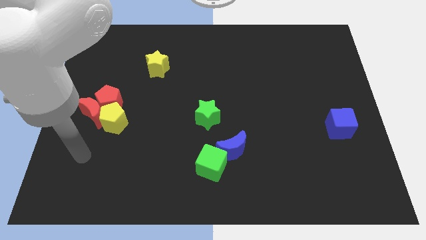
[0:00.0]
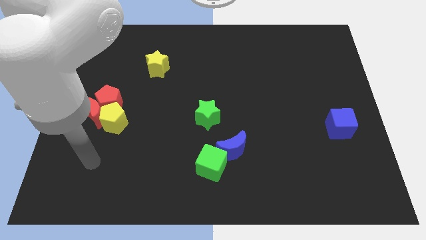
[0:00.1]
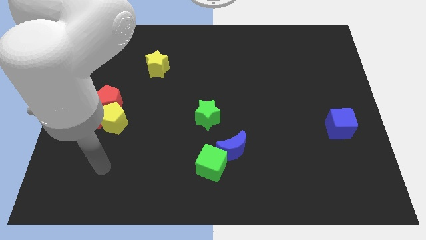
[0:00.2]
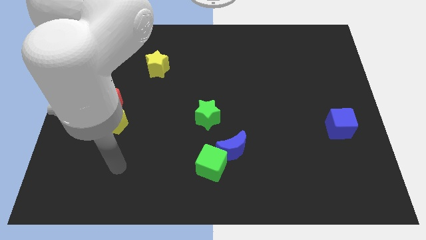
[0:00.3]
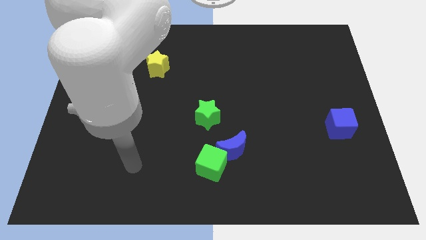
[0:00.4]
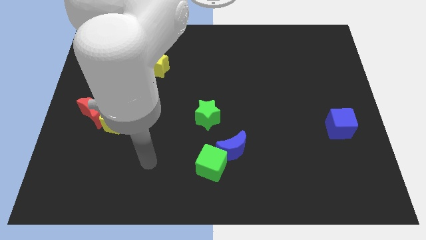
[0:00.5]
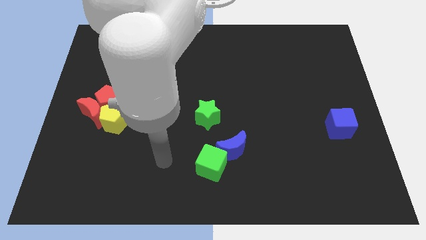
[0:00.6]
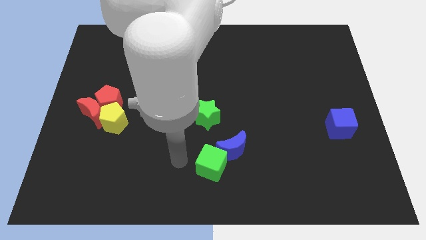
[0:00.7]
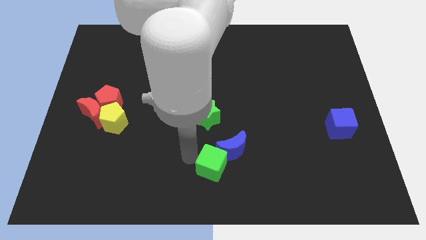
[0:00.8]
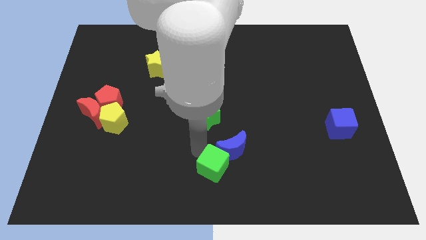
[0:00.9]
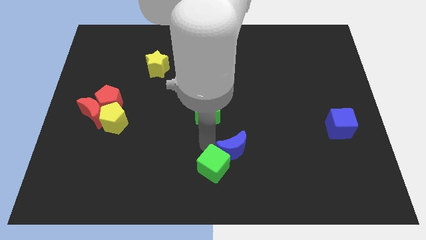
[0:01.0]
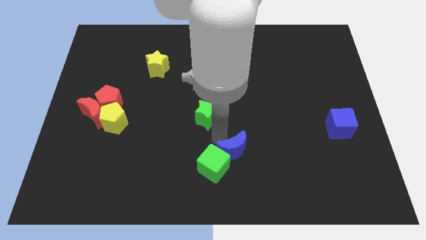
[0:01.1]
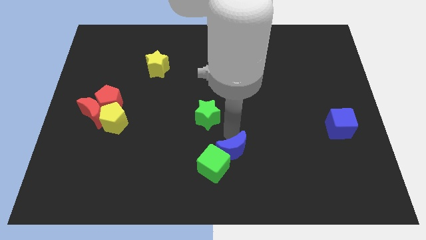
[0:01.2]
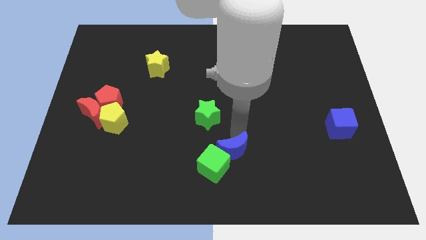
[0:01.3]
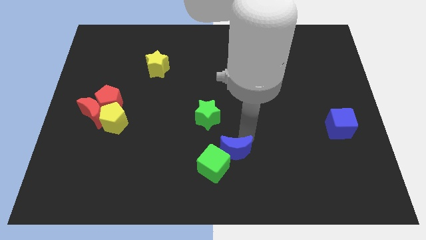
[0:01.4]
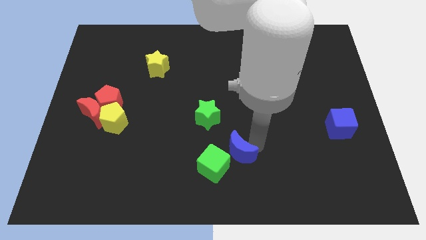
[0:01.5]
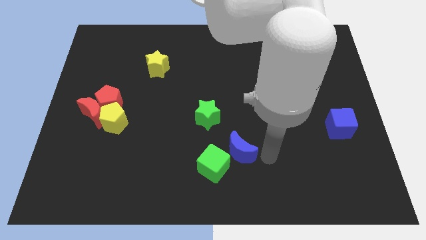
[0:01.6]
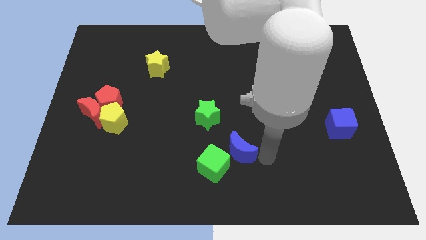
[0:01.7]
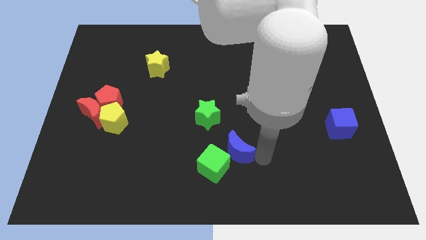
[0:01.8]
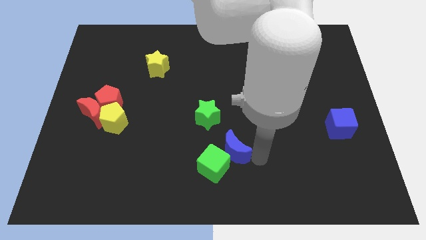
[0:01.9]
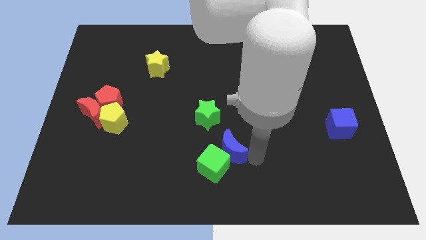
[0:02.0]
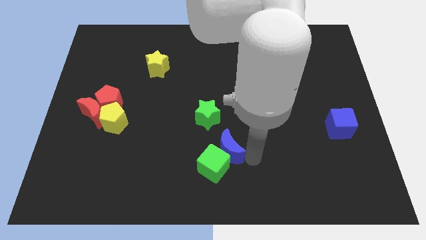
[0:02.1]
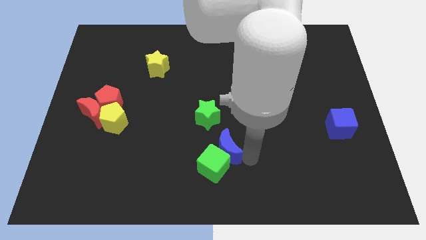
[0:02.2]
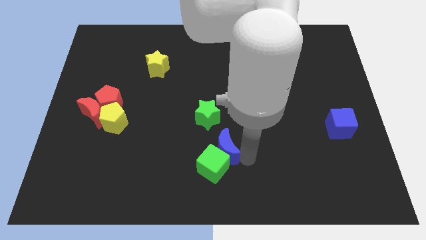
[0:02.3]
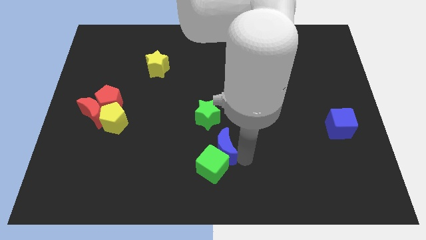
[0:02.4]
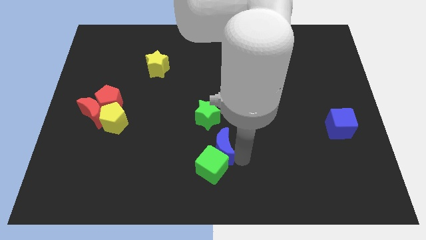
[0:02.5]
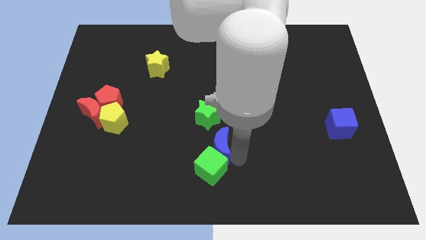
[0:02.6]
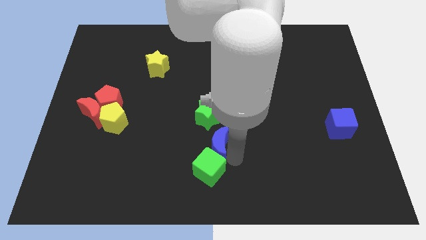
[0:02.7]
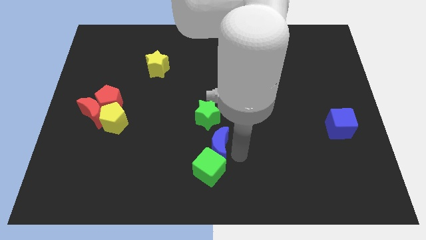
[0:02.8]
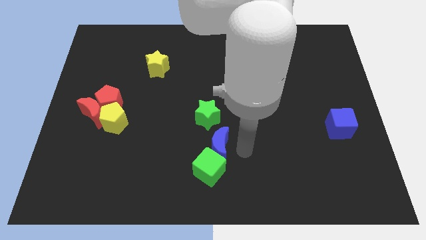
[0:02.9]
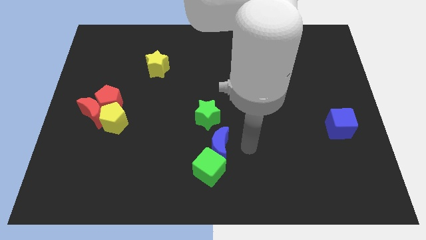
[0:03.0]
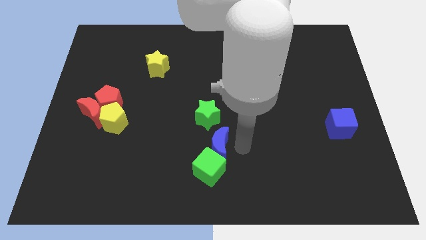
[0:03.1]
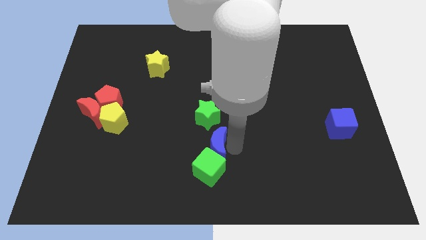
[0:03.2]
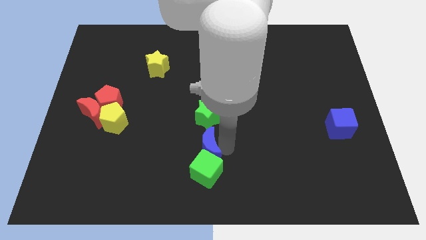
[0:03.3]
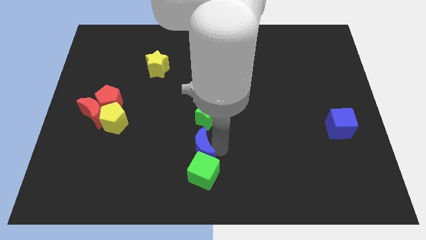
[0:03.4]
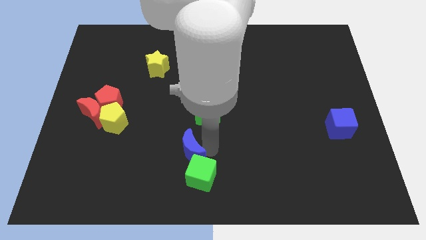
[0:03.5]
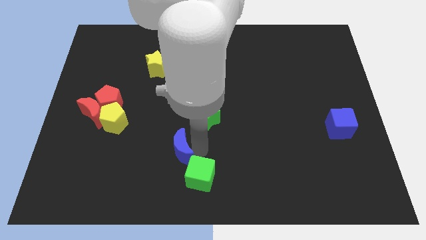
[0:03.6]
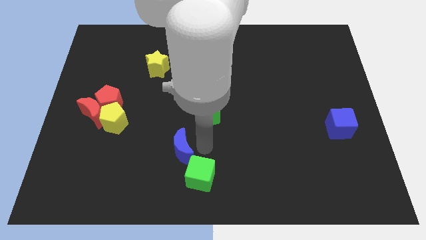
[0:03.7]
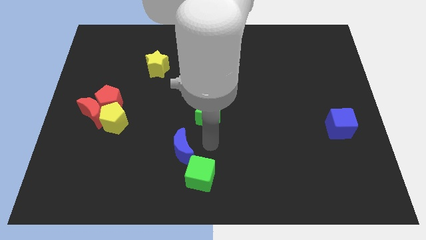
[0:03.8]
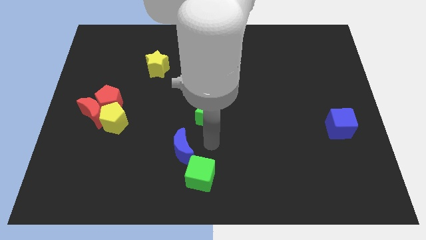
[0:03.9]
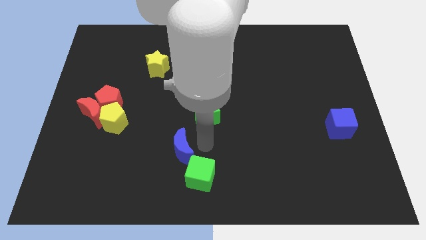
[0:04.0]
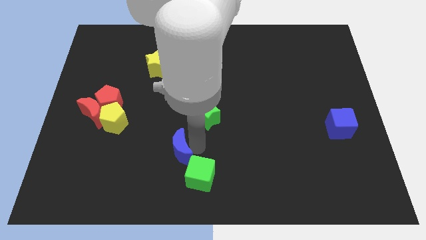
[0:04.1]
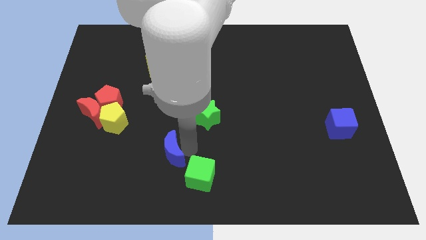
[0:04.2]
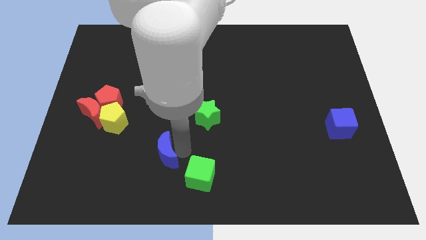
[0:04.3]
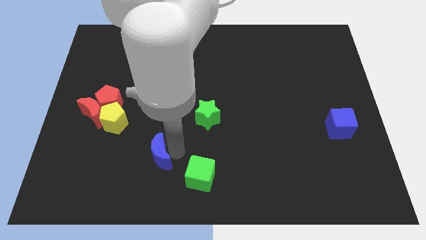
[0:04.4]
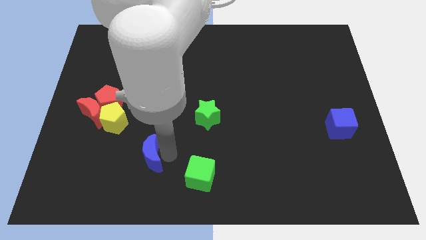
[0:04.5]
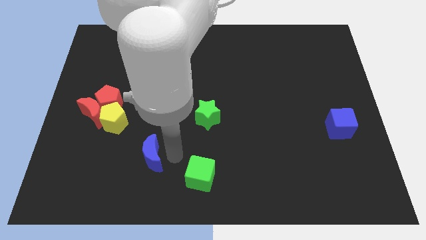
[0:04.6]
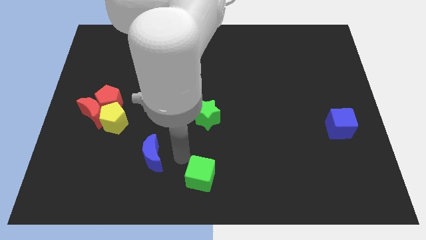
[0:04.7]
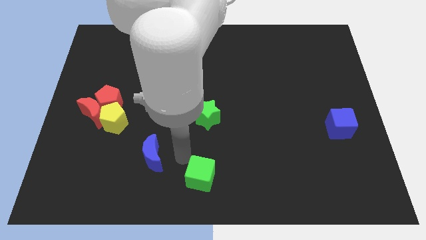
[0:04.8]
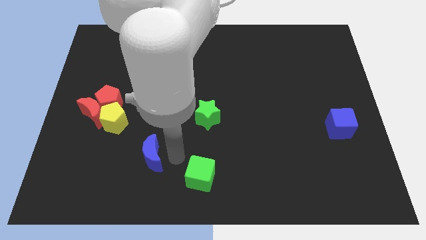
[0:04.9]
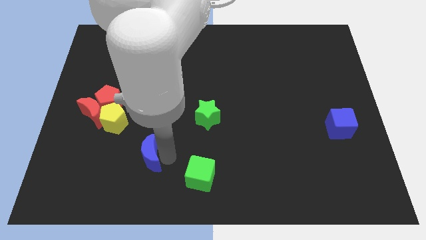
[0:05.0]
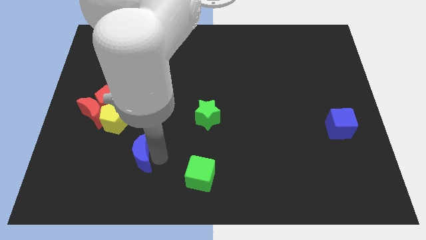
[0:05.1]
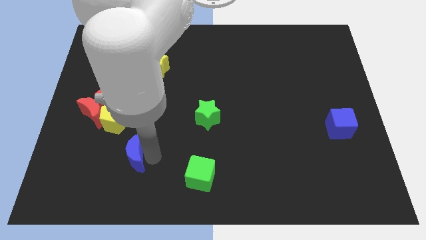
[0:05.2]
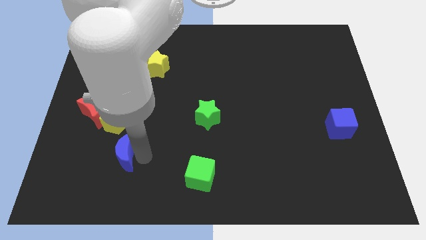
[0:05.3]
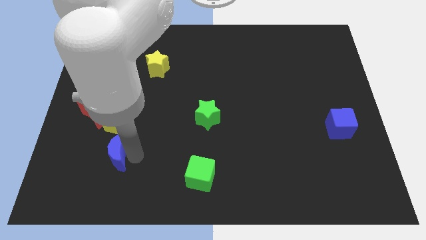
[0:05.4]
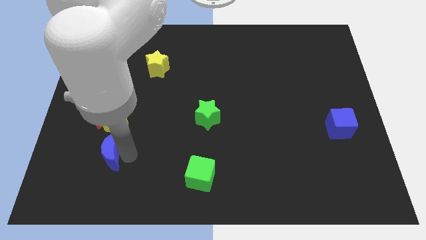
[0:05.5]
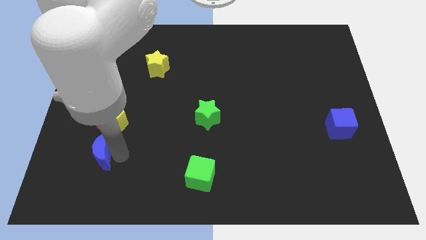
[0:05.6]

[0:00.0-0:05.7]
slide the blue moon to the bottom of the red moon

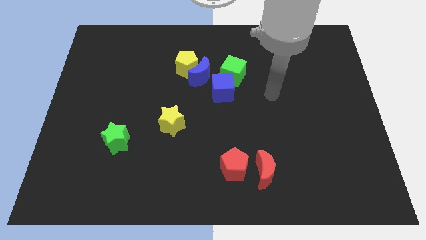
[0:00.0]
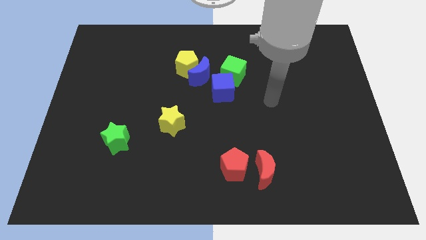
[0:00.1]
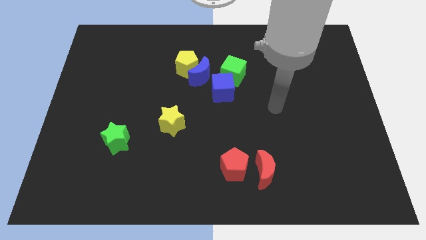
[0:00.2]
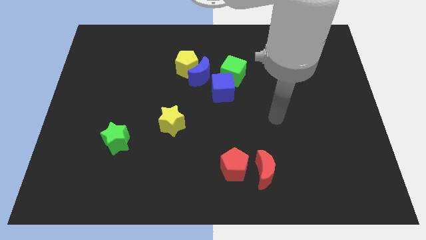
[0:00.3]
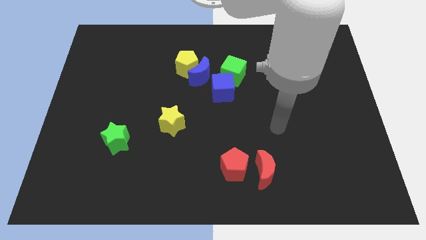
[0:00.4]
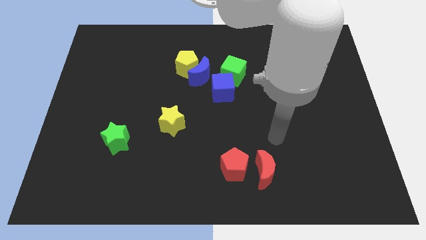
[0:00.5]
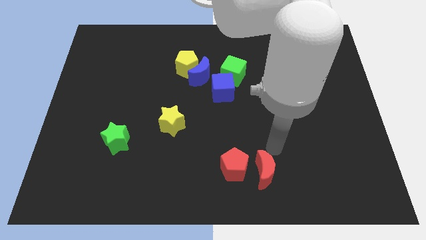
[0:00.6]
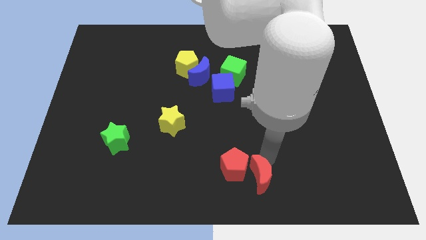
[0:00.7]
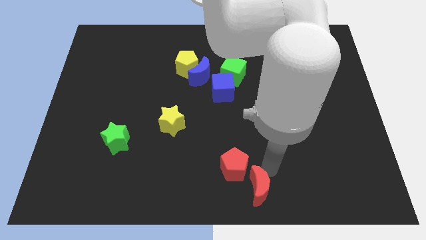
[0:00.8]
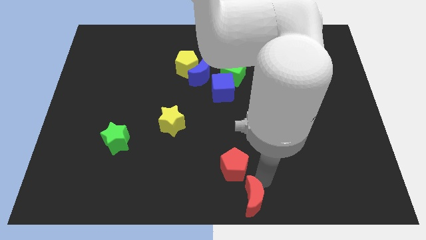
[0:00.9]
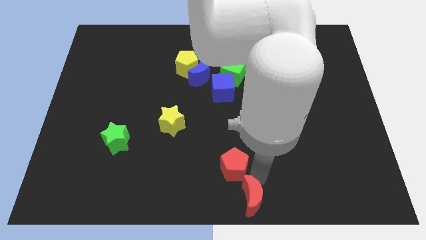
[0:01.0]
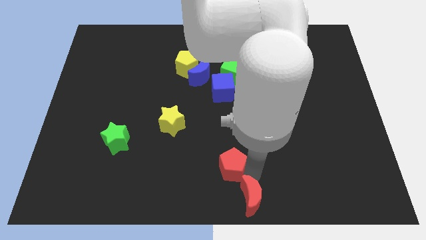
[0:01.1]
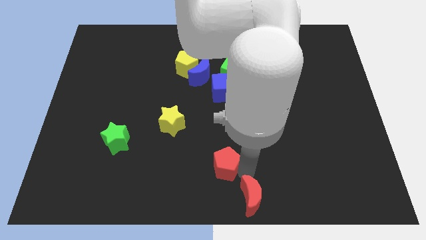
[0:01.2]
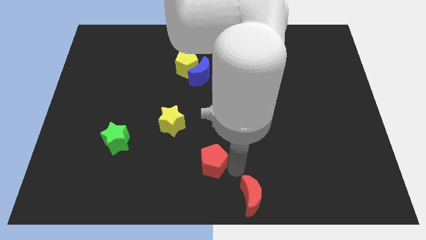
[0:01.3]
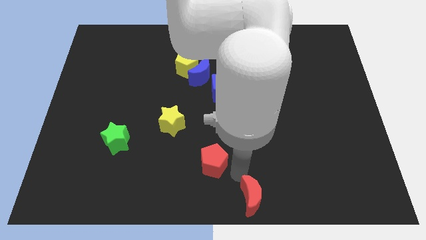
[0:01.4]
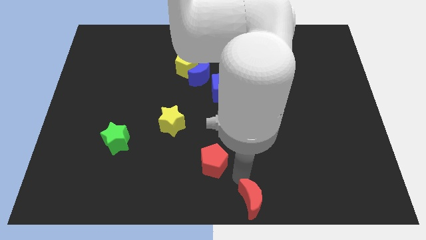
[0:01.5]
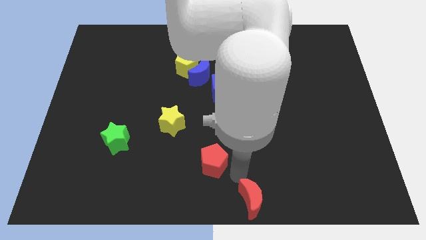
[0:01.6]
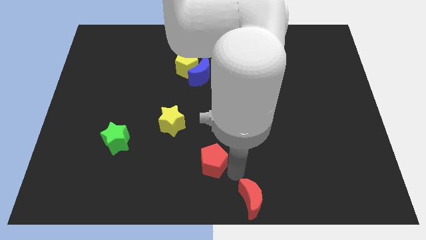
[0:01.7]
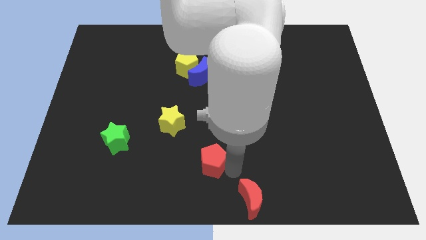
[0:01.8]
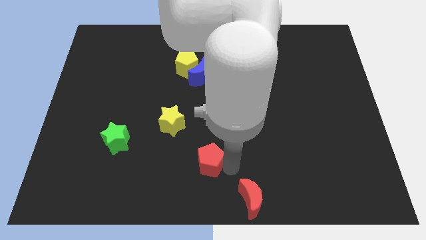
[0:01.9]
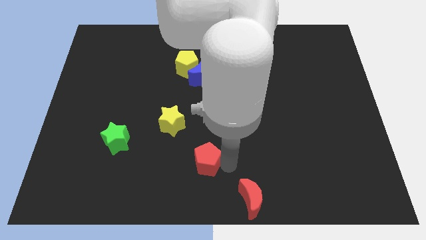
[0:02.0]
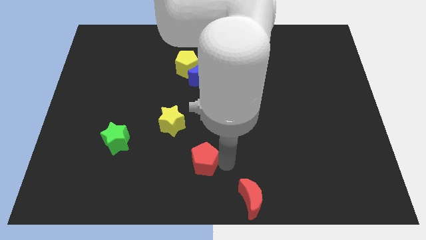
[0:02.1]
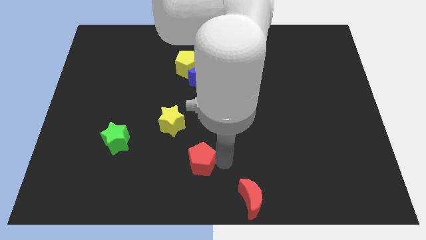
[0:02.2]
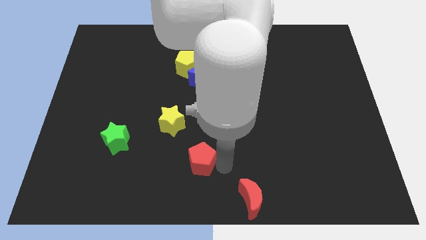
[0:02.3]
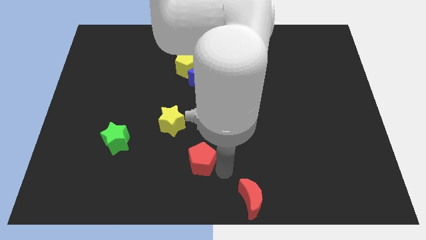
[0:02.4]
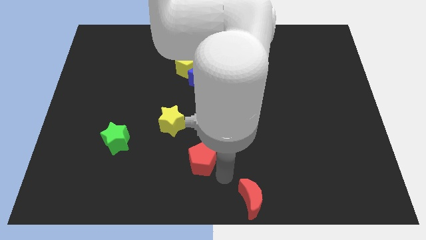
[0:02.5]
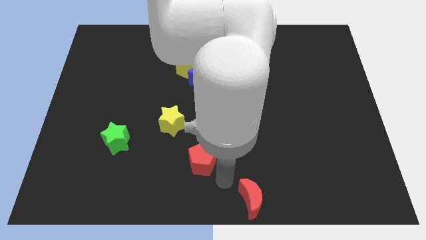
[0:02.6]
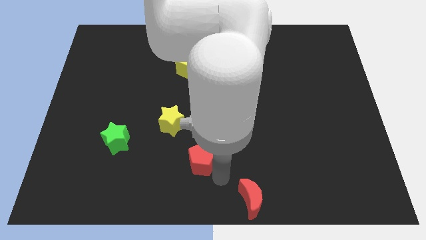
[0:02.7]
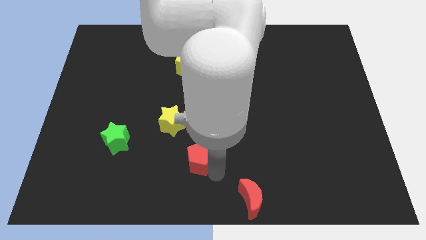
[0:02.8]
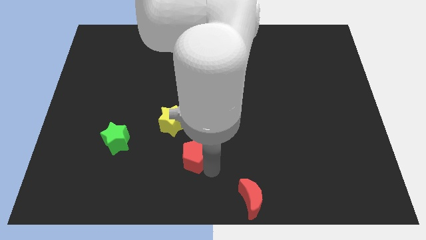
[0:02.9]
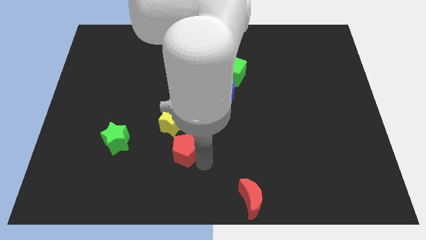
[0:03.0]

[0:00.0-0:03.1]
slide the red pentagon right of the green star
